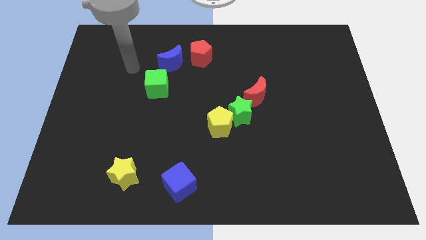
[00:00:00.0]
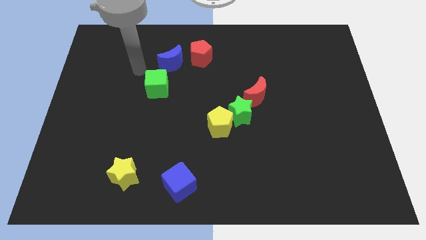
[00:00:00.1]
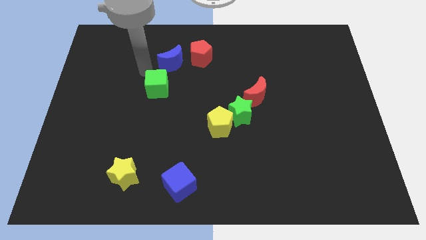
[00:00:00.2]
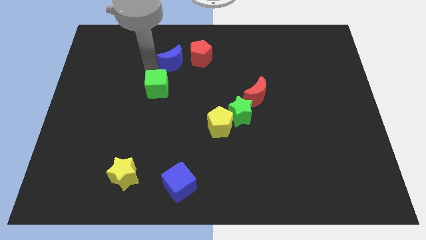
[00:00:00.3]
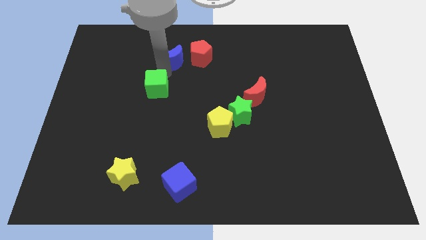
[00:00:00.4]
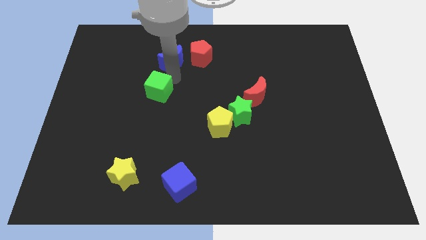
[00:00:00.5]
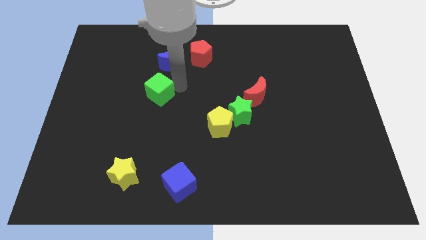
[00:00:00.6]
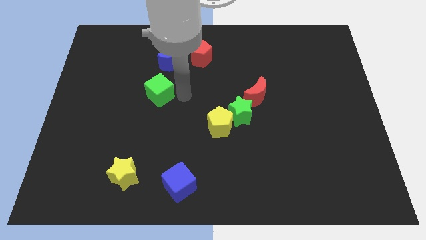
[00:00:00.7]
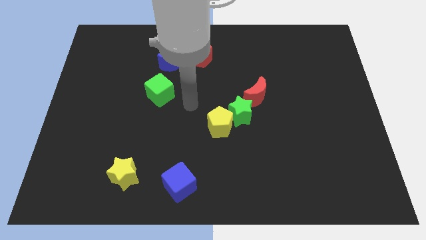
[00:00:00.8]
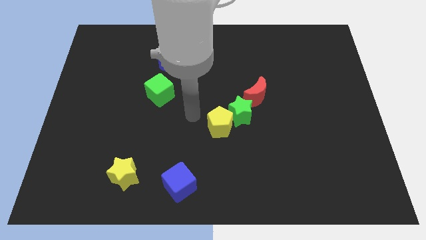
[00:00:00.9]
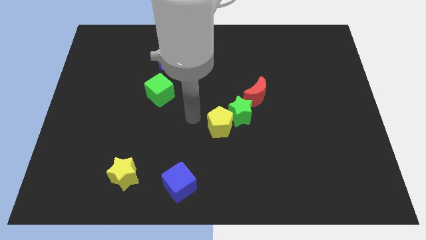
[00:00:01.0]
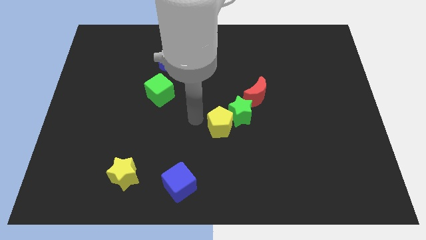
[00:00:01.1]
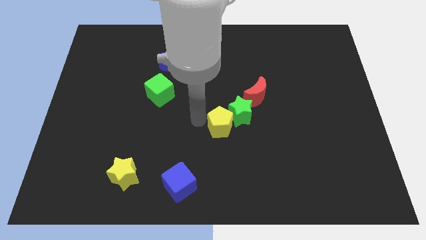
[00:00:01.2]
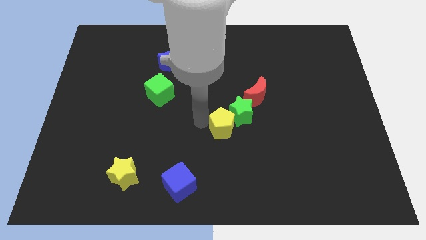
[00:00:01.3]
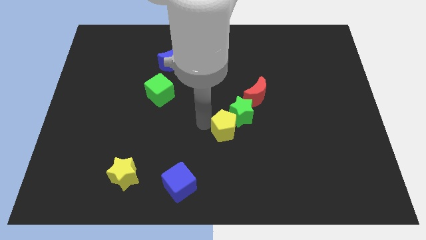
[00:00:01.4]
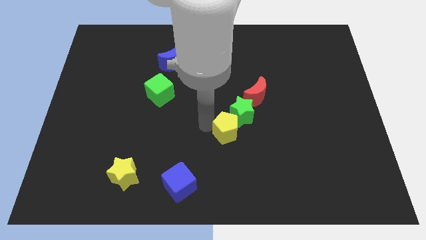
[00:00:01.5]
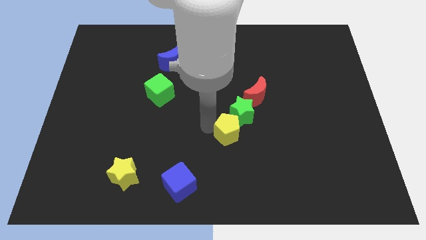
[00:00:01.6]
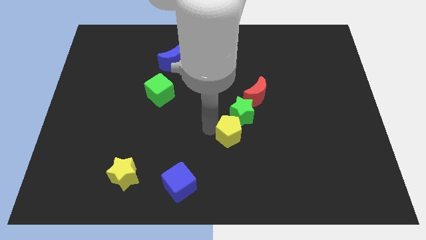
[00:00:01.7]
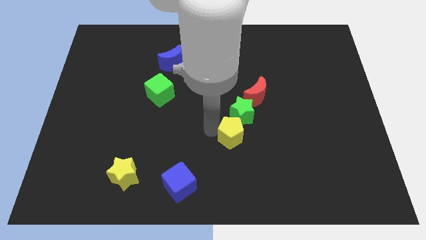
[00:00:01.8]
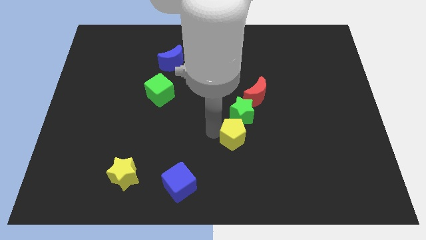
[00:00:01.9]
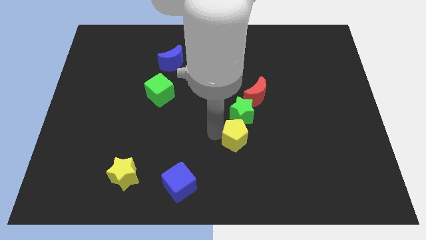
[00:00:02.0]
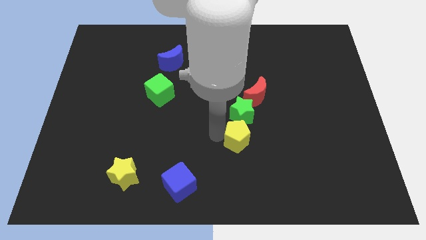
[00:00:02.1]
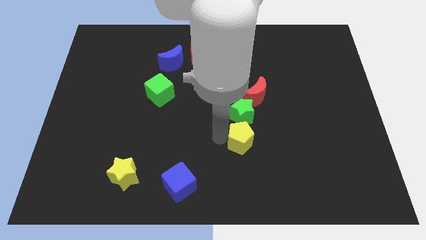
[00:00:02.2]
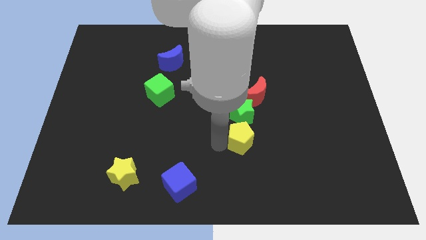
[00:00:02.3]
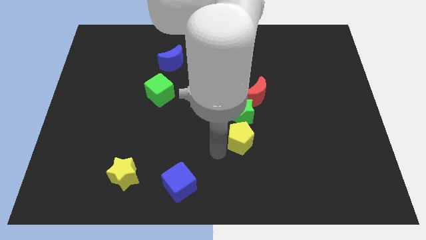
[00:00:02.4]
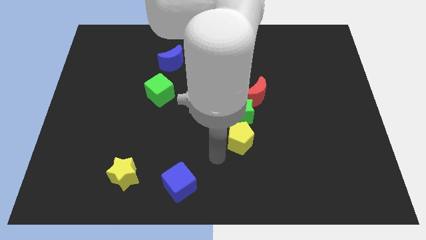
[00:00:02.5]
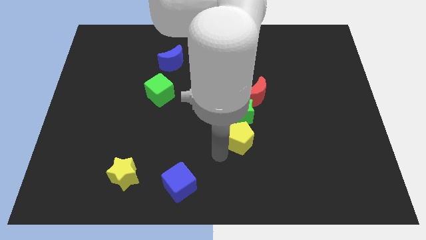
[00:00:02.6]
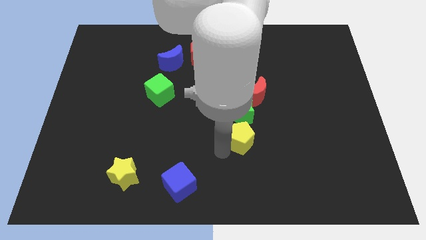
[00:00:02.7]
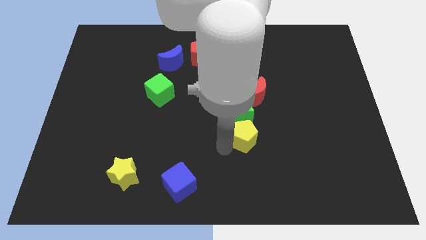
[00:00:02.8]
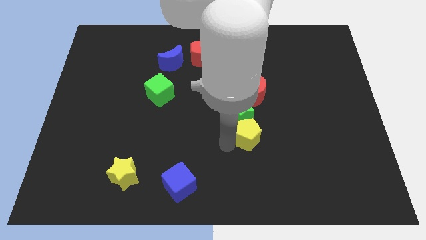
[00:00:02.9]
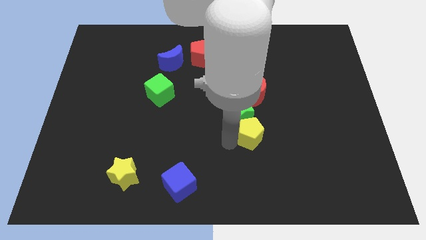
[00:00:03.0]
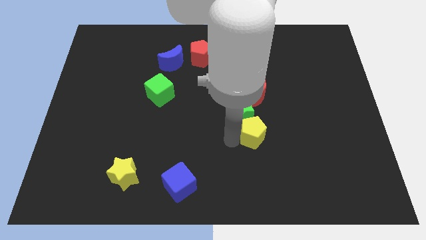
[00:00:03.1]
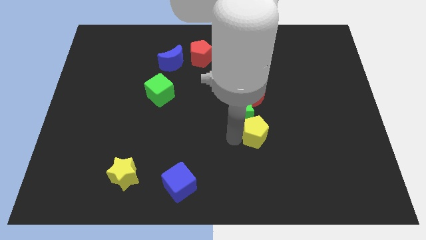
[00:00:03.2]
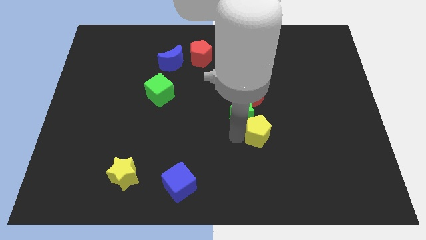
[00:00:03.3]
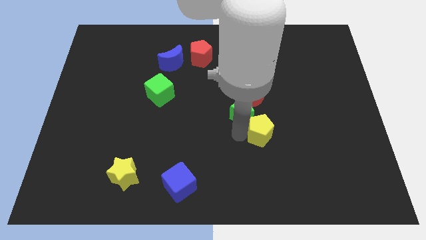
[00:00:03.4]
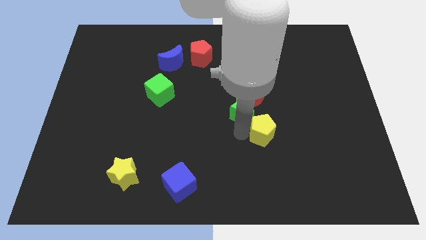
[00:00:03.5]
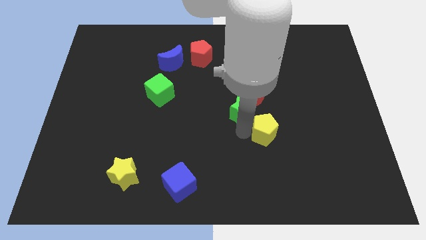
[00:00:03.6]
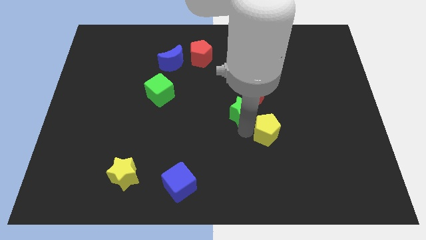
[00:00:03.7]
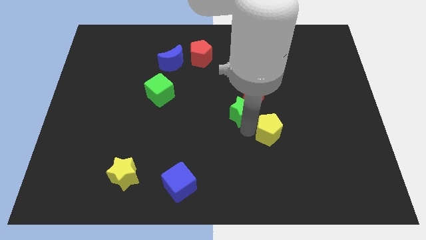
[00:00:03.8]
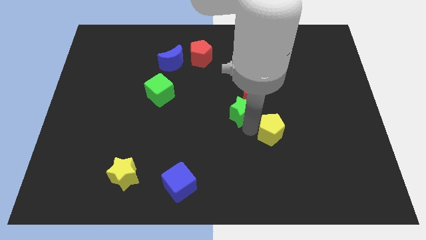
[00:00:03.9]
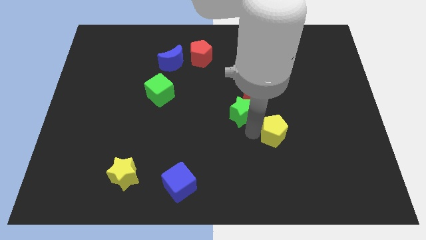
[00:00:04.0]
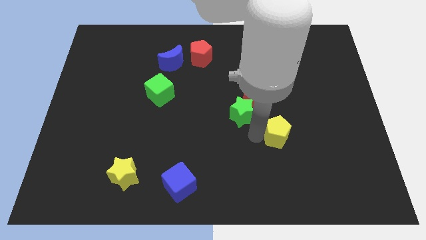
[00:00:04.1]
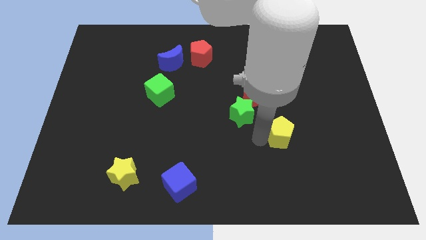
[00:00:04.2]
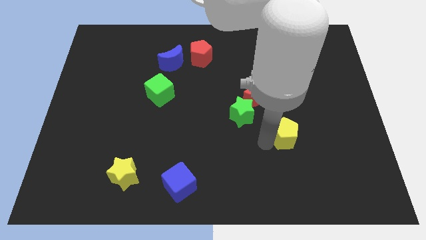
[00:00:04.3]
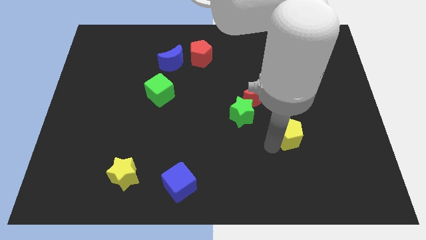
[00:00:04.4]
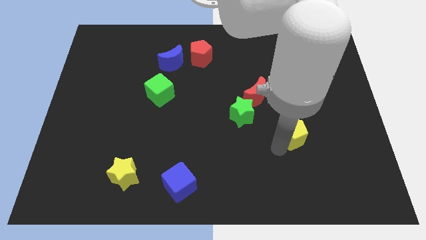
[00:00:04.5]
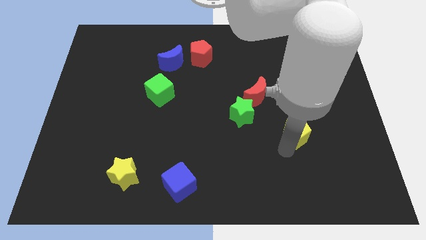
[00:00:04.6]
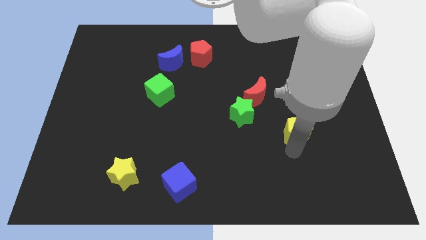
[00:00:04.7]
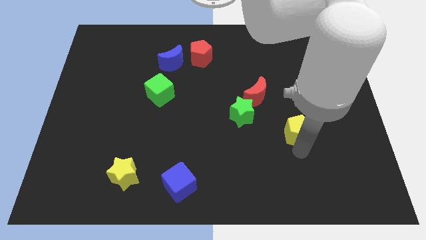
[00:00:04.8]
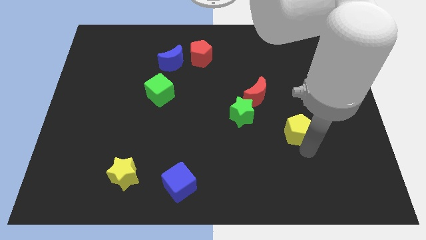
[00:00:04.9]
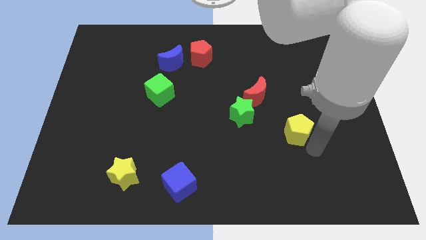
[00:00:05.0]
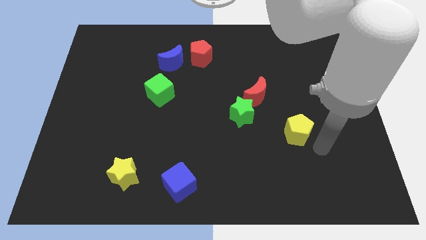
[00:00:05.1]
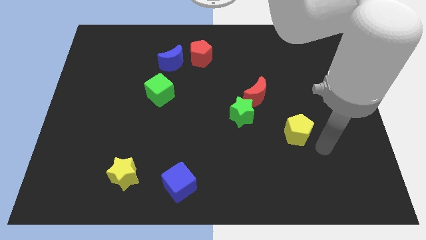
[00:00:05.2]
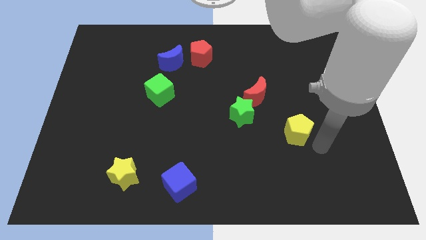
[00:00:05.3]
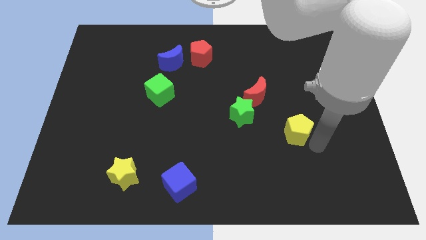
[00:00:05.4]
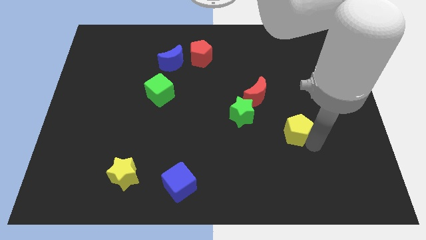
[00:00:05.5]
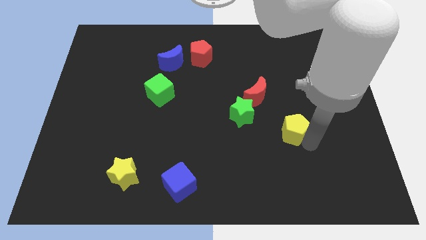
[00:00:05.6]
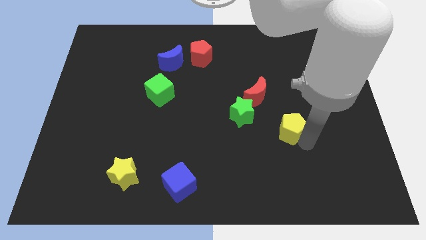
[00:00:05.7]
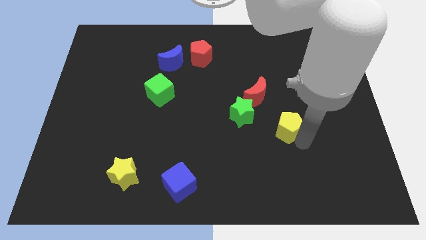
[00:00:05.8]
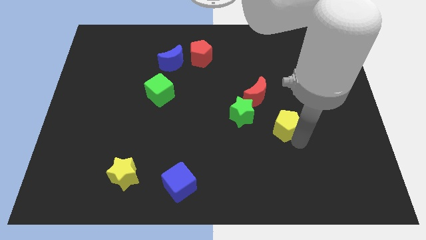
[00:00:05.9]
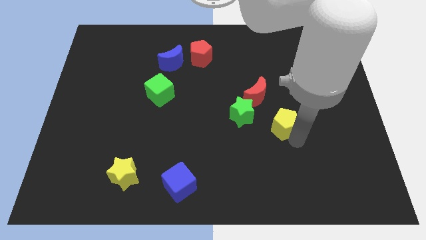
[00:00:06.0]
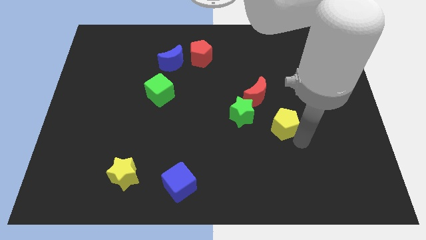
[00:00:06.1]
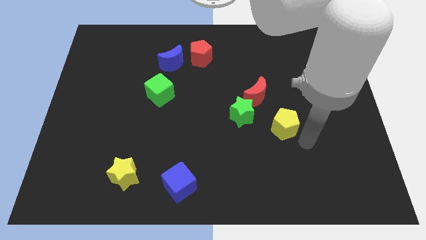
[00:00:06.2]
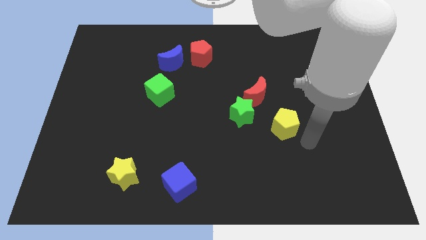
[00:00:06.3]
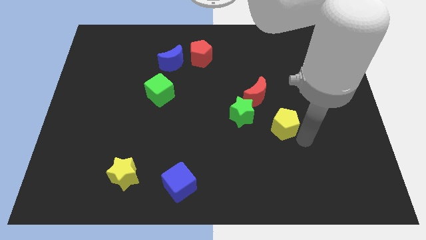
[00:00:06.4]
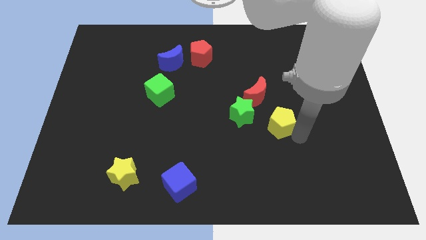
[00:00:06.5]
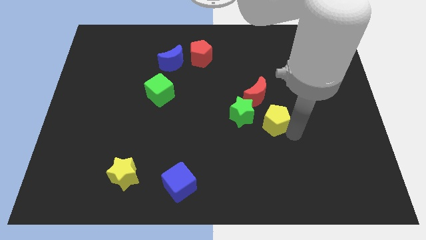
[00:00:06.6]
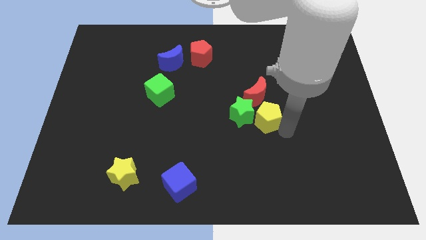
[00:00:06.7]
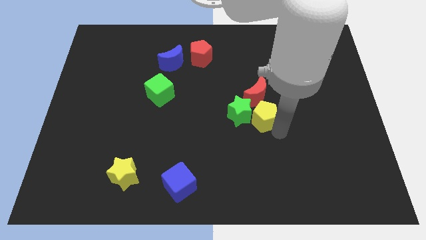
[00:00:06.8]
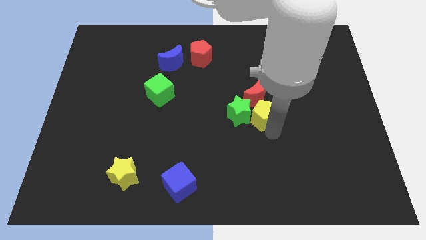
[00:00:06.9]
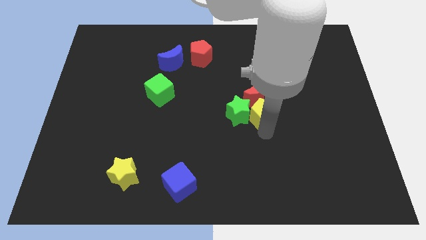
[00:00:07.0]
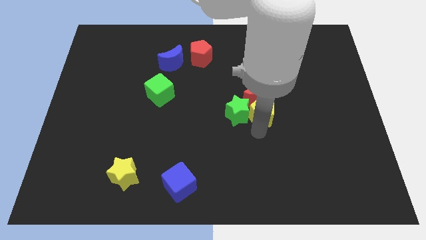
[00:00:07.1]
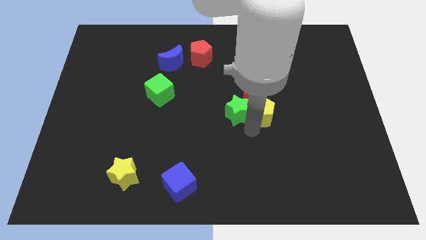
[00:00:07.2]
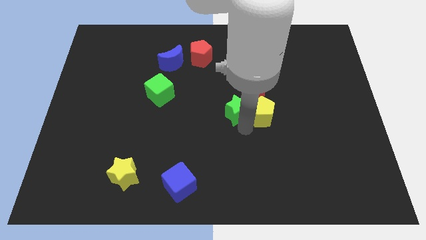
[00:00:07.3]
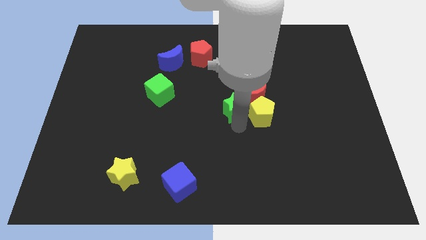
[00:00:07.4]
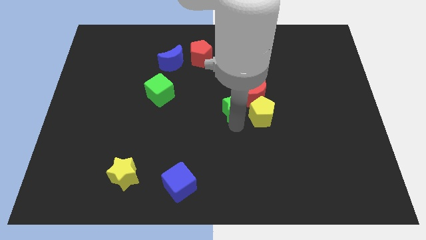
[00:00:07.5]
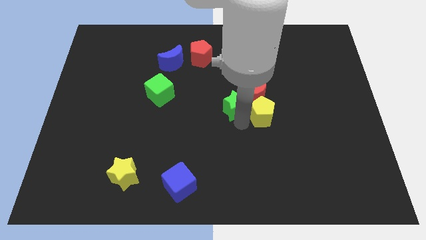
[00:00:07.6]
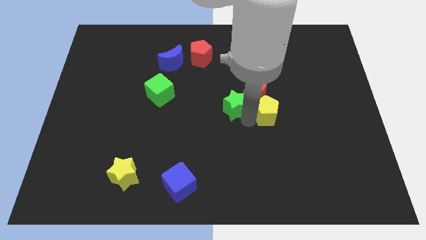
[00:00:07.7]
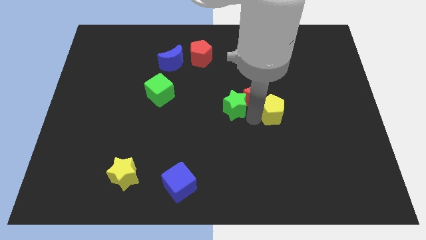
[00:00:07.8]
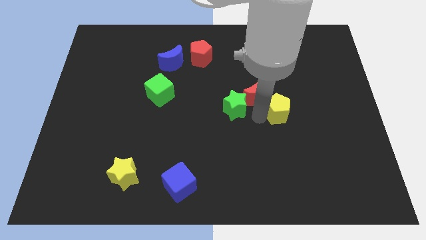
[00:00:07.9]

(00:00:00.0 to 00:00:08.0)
push the yellow pentagon right of the red moon
